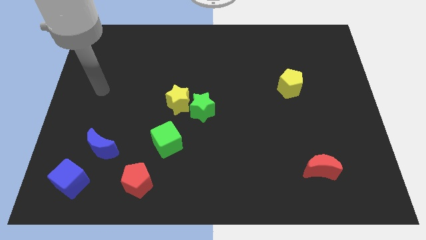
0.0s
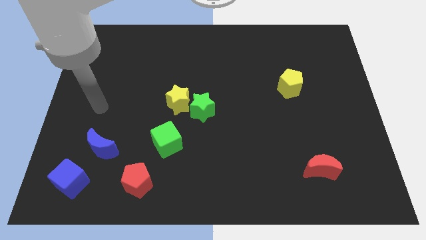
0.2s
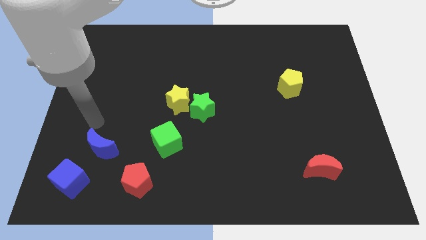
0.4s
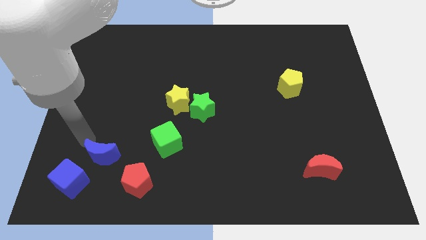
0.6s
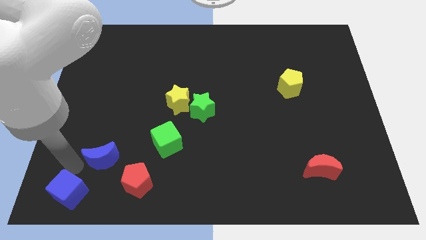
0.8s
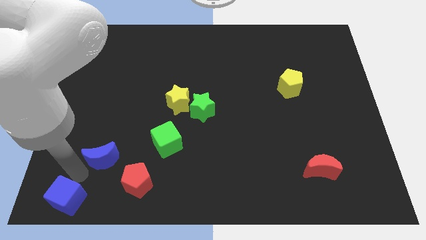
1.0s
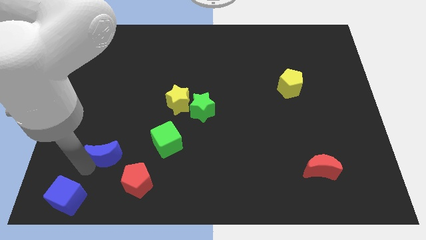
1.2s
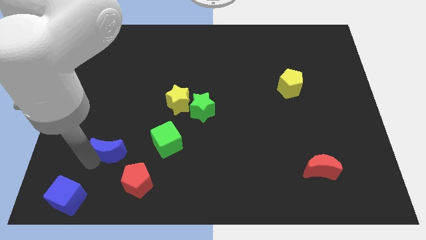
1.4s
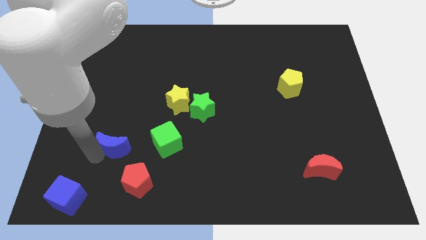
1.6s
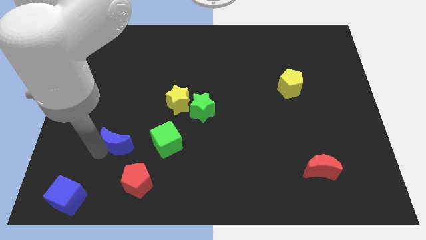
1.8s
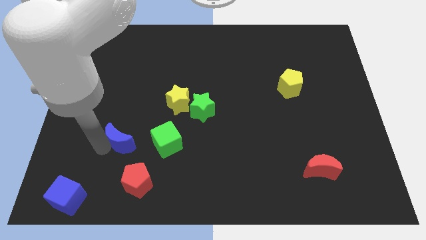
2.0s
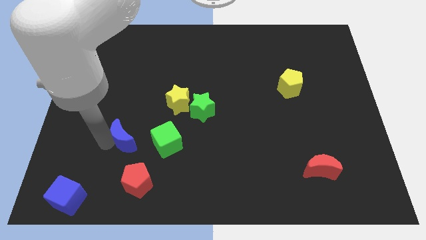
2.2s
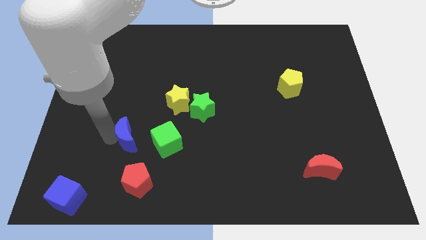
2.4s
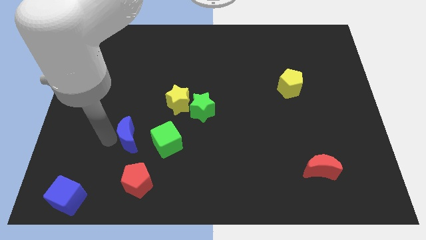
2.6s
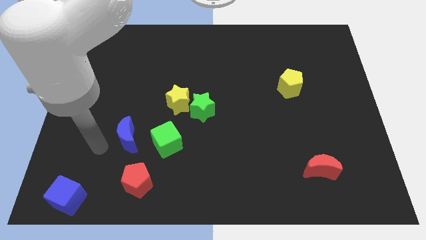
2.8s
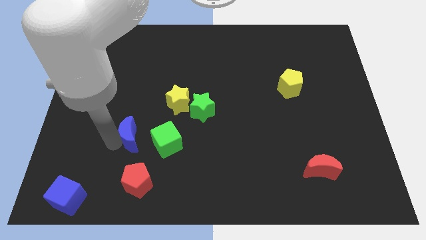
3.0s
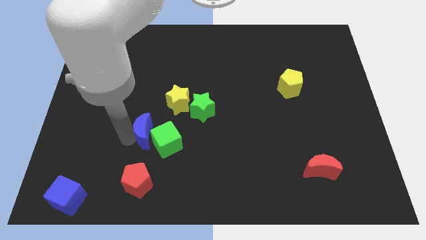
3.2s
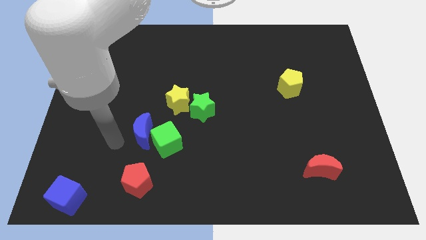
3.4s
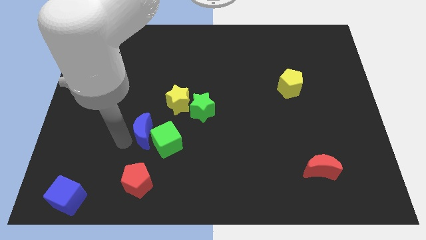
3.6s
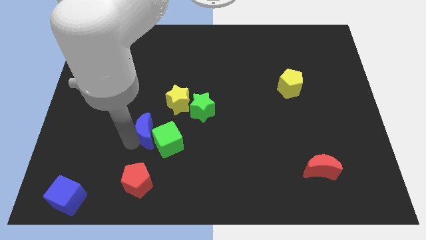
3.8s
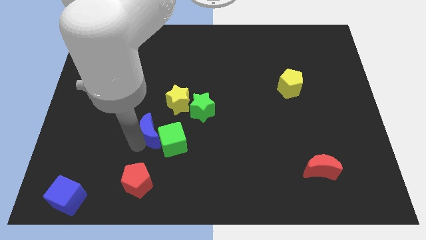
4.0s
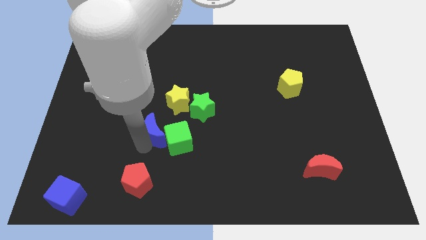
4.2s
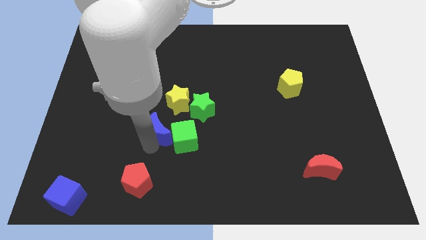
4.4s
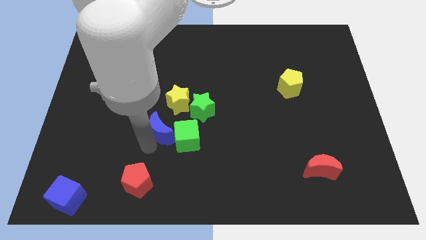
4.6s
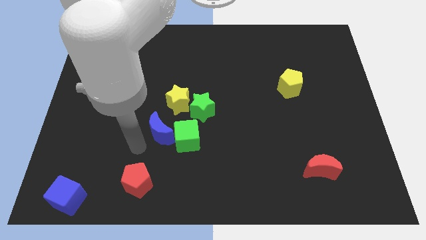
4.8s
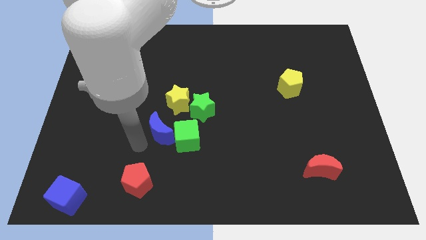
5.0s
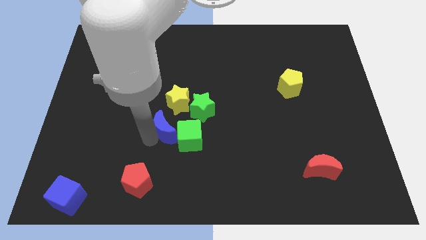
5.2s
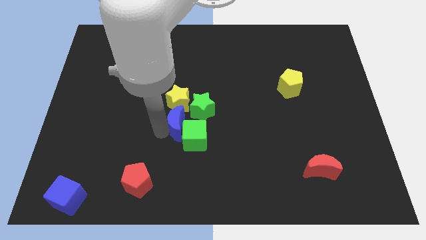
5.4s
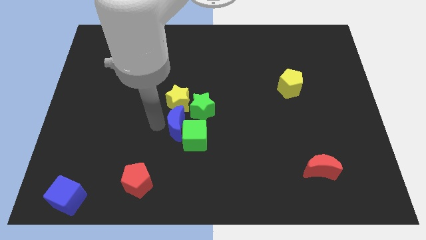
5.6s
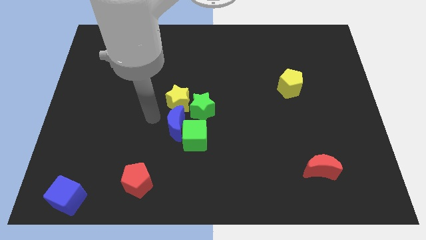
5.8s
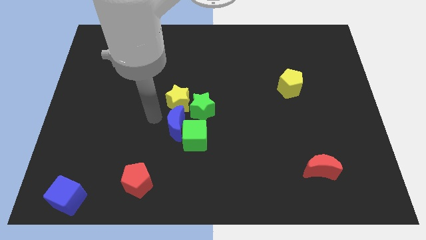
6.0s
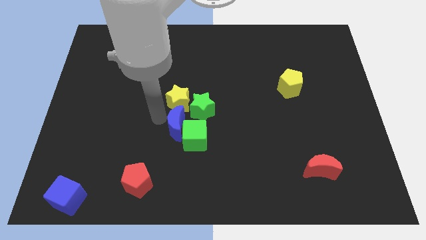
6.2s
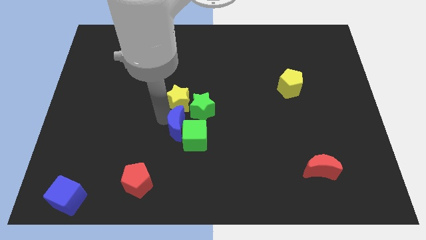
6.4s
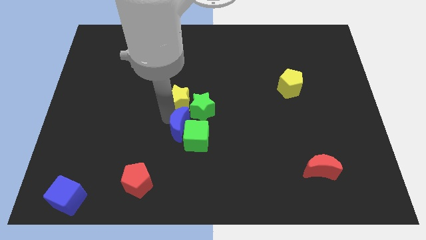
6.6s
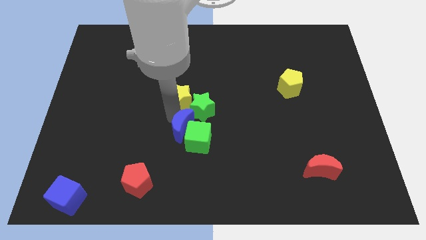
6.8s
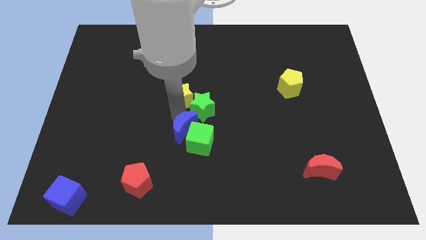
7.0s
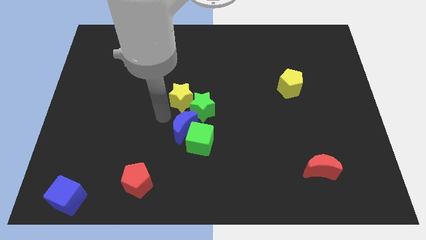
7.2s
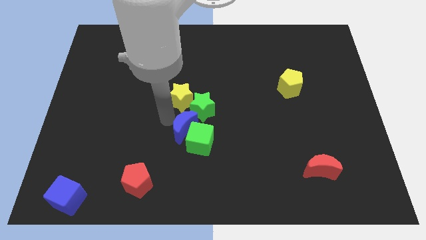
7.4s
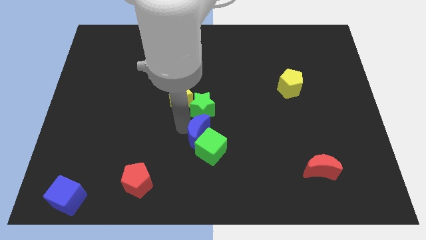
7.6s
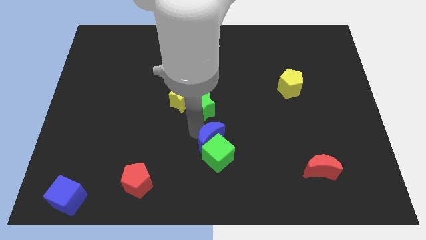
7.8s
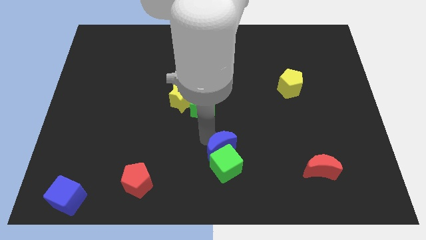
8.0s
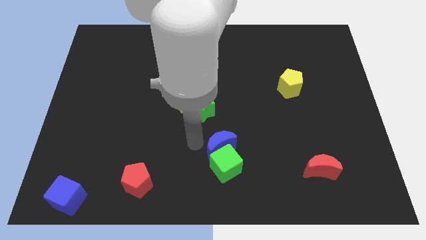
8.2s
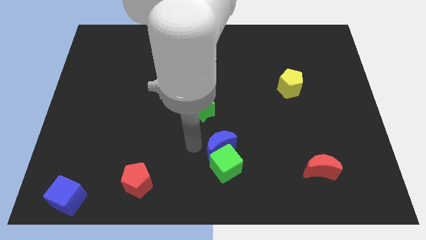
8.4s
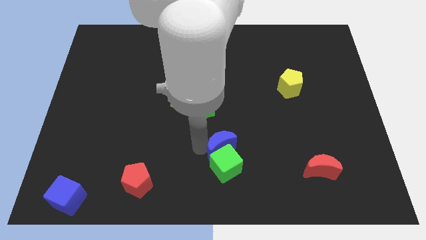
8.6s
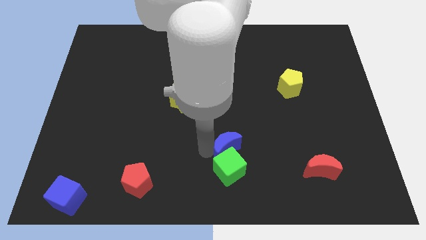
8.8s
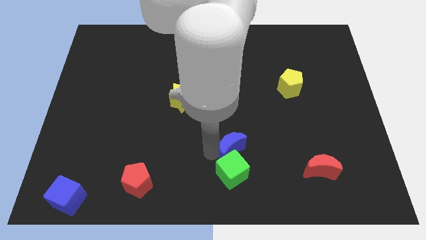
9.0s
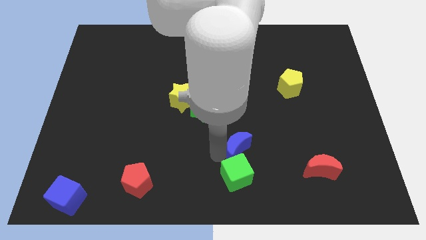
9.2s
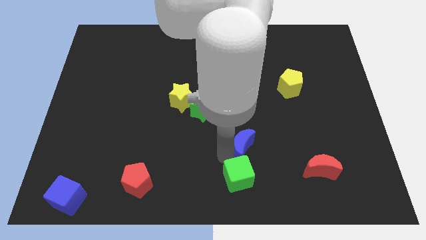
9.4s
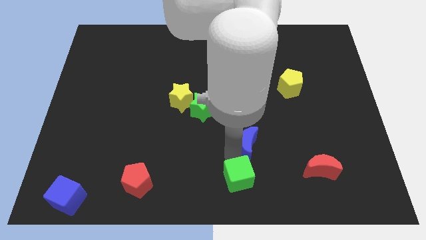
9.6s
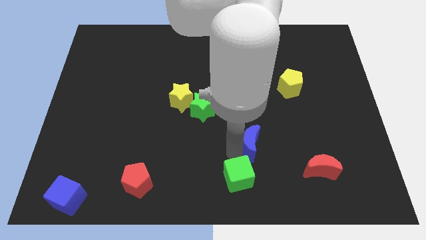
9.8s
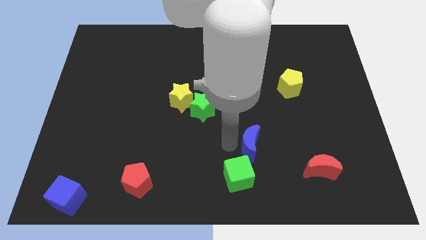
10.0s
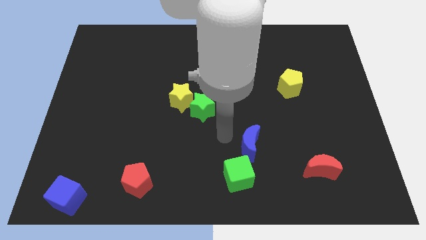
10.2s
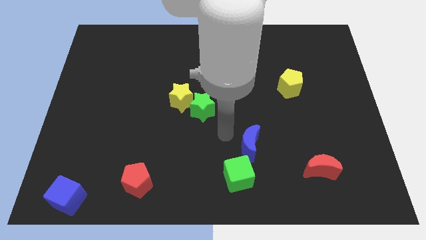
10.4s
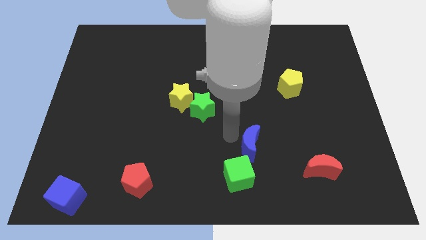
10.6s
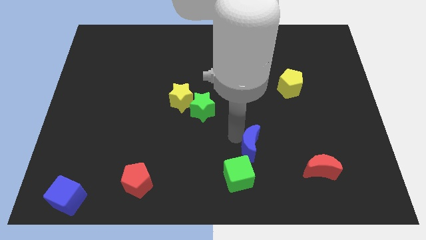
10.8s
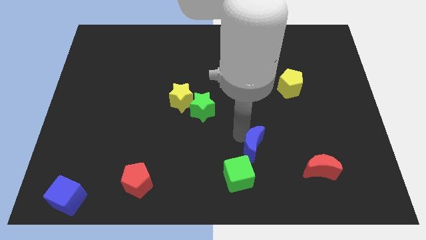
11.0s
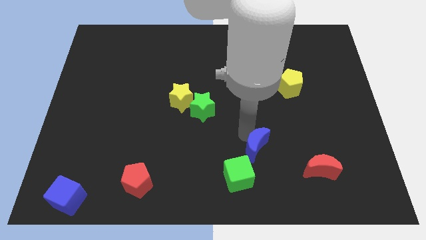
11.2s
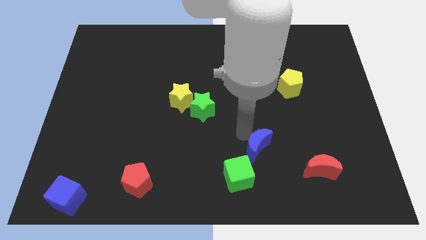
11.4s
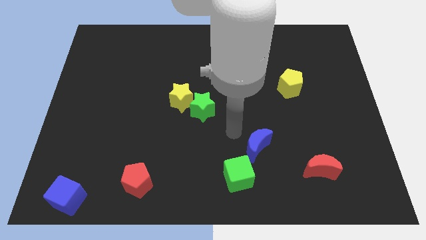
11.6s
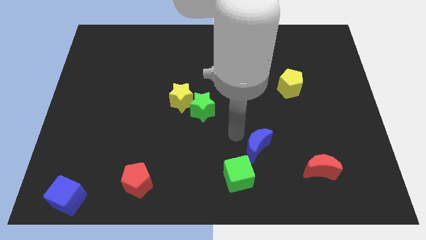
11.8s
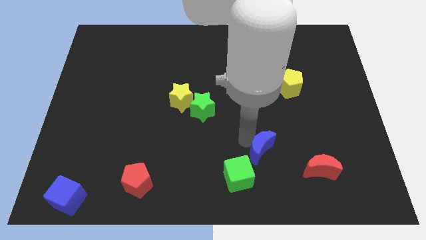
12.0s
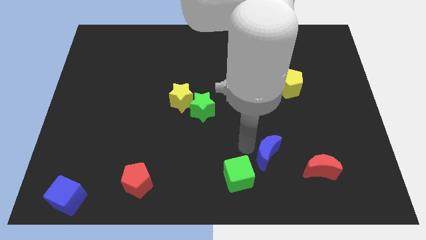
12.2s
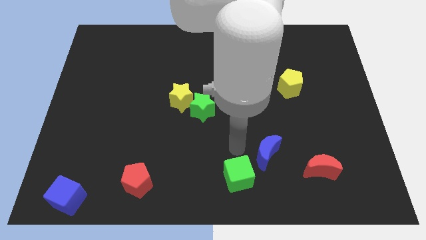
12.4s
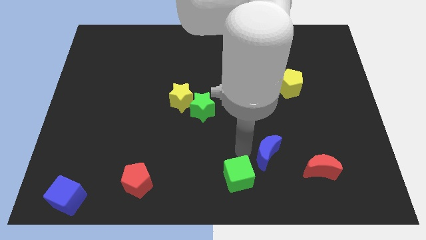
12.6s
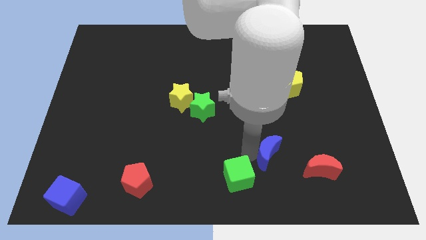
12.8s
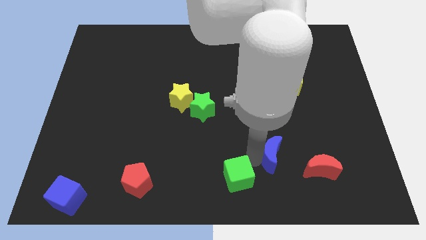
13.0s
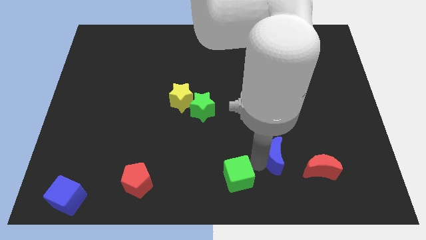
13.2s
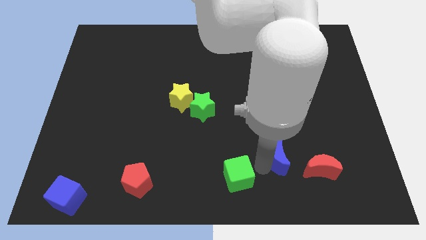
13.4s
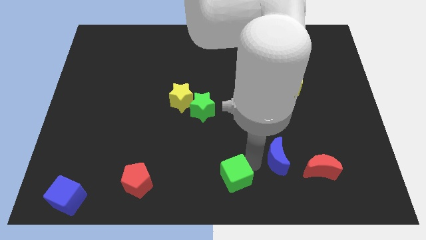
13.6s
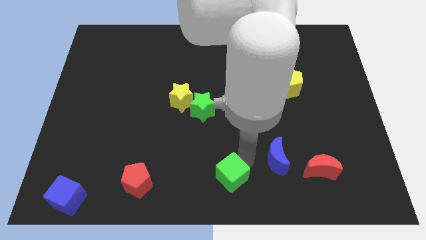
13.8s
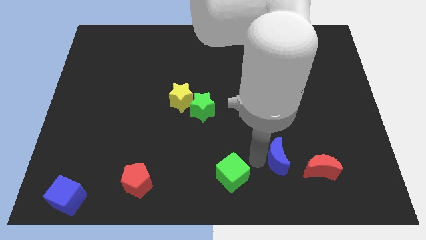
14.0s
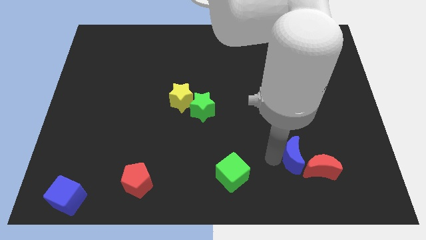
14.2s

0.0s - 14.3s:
put the blue moon to the red moon
